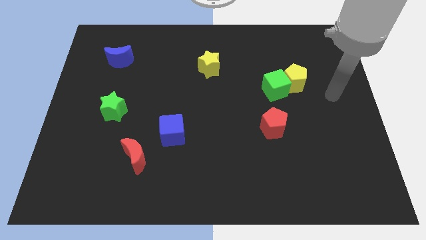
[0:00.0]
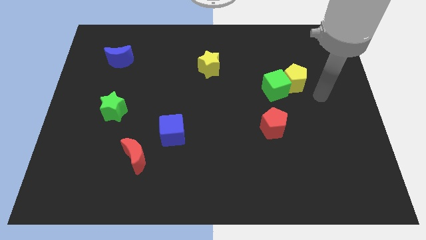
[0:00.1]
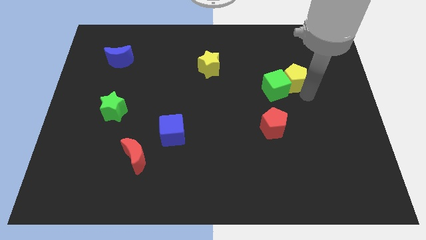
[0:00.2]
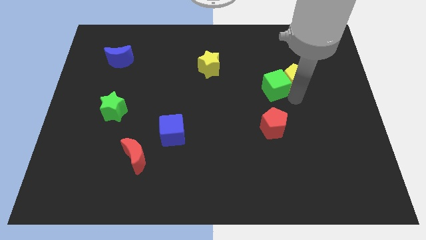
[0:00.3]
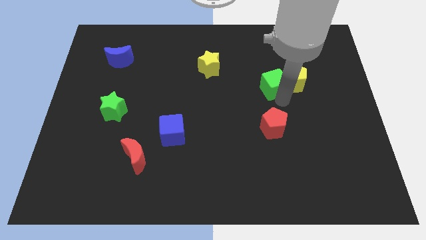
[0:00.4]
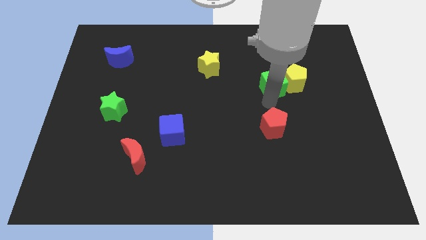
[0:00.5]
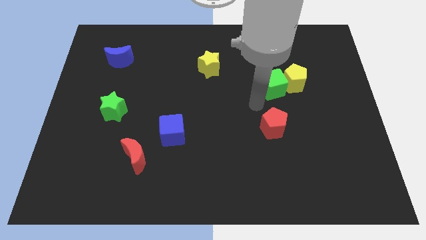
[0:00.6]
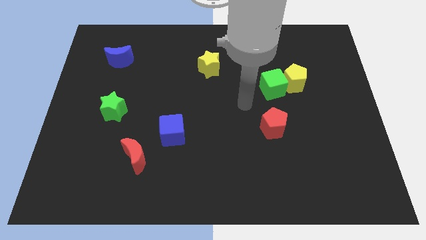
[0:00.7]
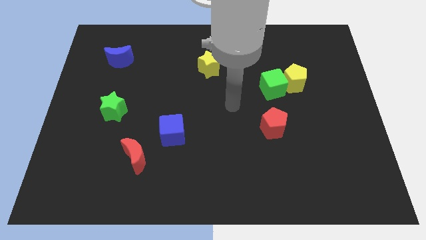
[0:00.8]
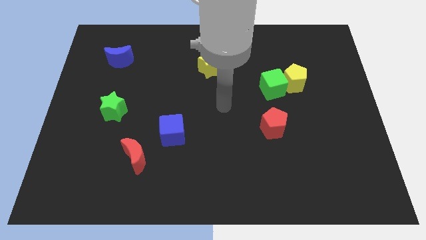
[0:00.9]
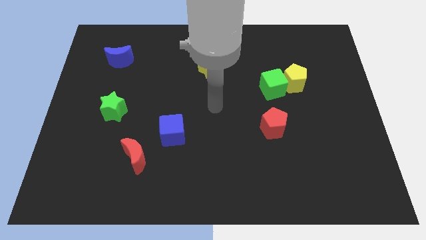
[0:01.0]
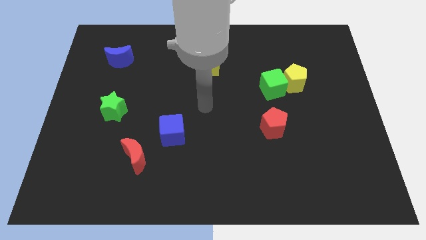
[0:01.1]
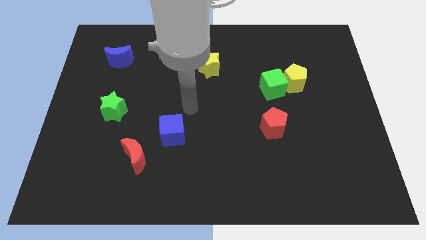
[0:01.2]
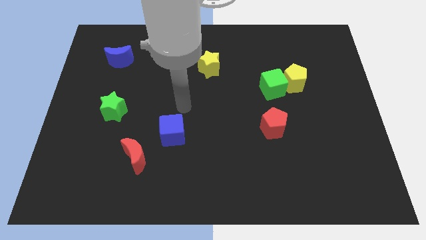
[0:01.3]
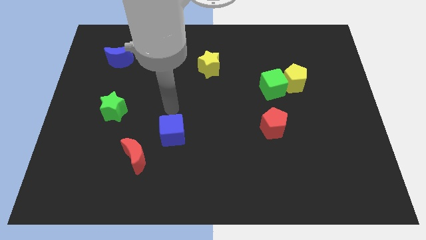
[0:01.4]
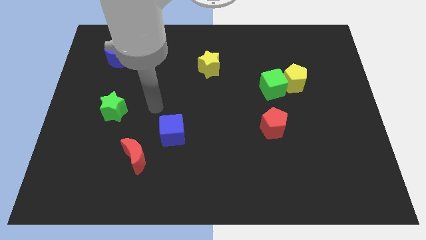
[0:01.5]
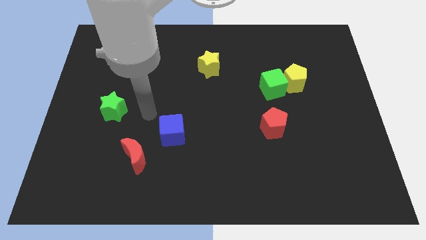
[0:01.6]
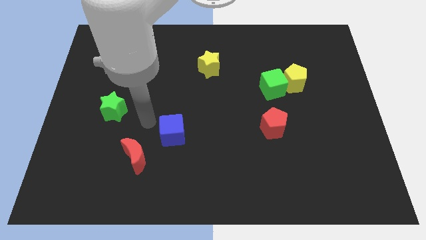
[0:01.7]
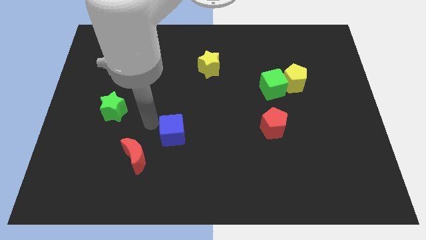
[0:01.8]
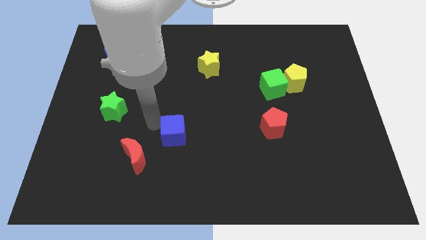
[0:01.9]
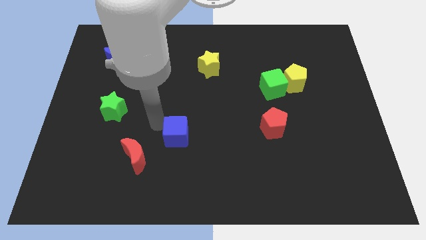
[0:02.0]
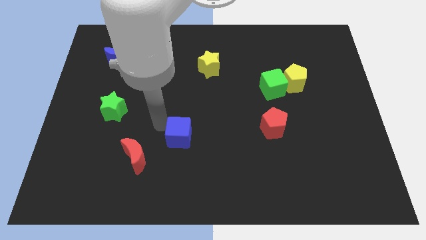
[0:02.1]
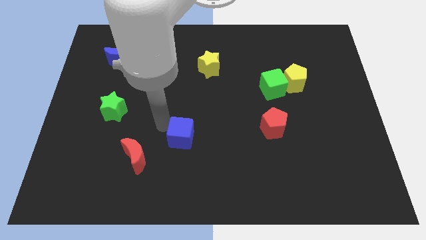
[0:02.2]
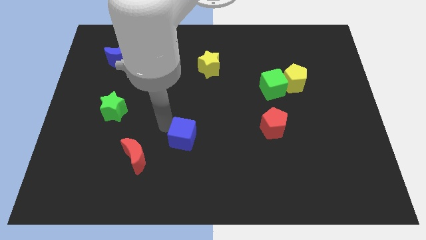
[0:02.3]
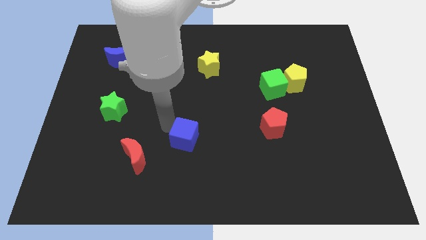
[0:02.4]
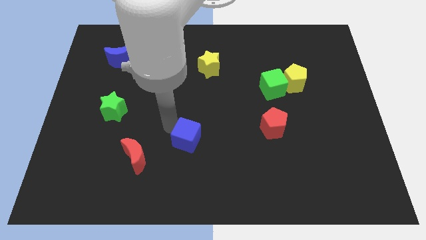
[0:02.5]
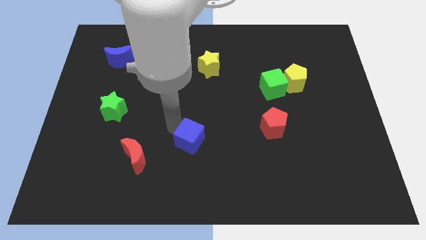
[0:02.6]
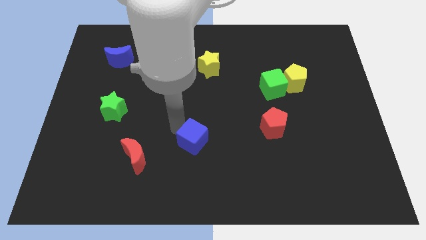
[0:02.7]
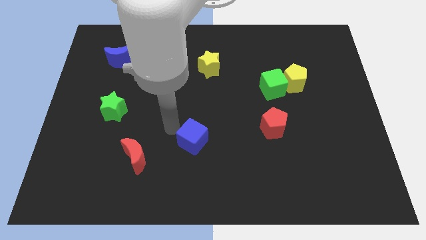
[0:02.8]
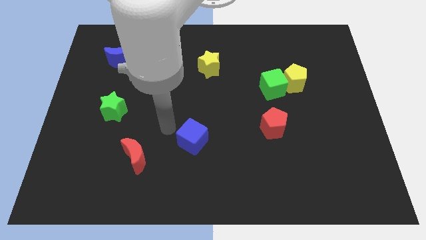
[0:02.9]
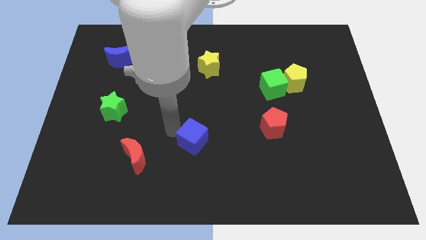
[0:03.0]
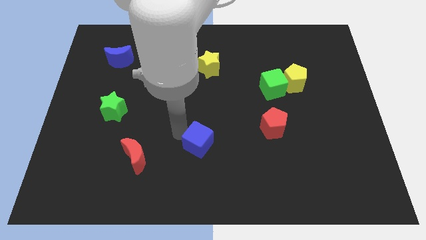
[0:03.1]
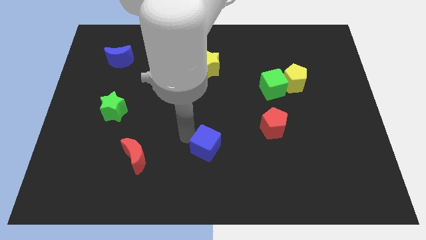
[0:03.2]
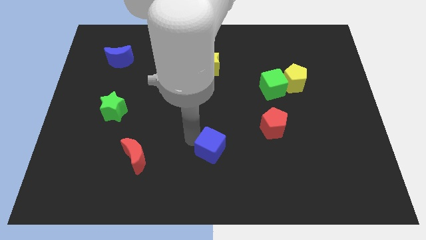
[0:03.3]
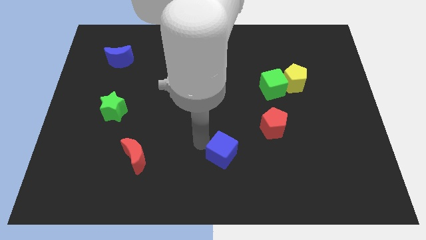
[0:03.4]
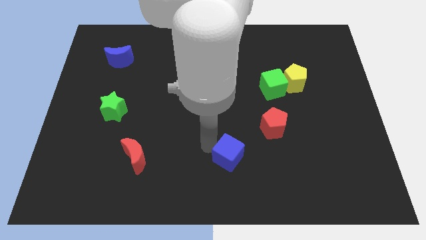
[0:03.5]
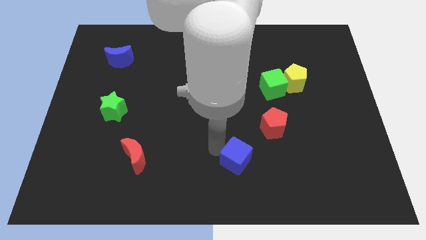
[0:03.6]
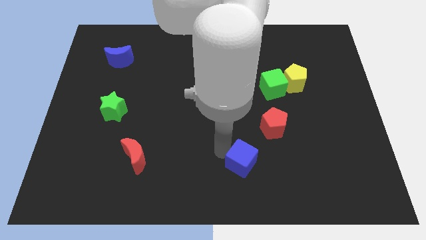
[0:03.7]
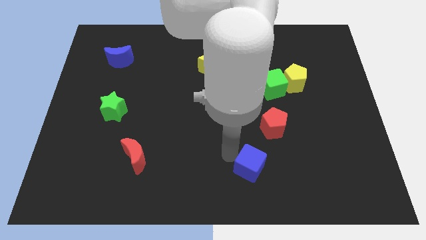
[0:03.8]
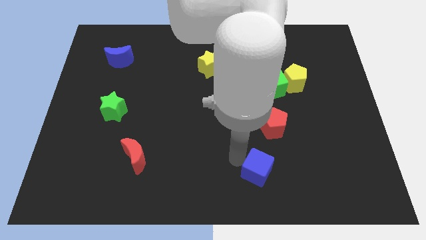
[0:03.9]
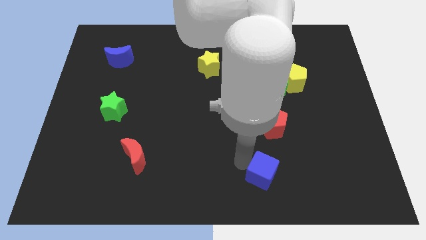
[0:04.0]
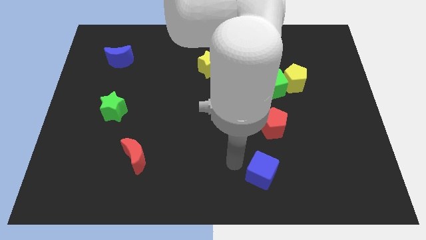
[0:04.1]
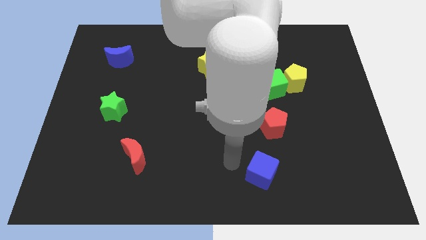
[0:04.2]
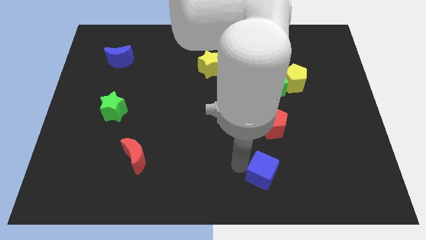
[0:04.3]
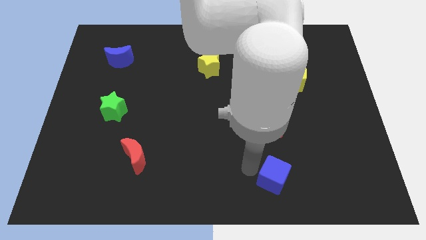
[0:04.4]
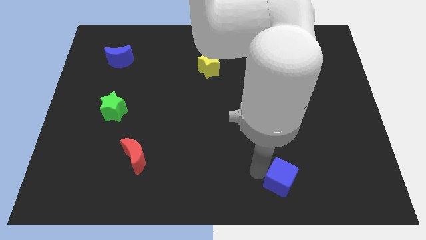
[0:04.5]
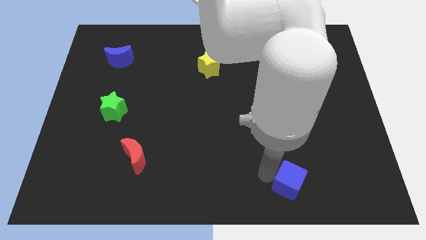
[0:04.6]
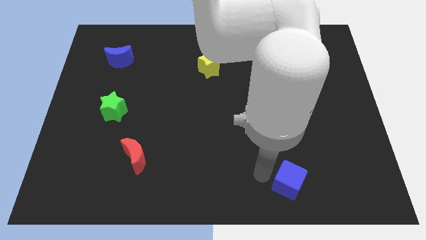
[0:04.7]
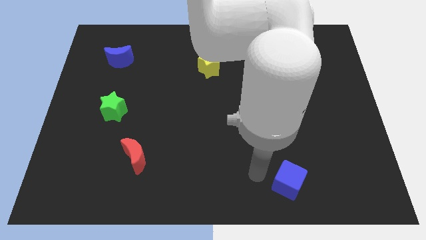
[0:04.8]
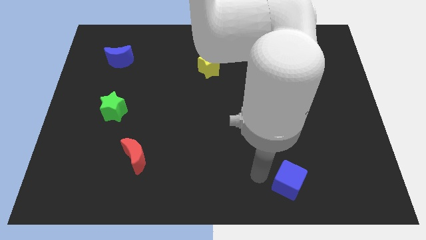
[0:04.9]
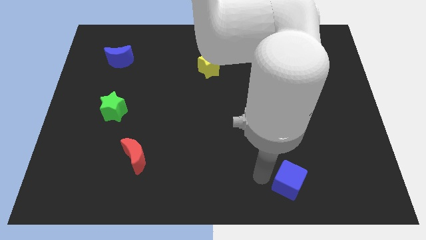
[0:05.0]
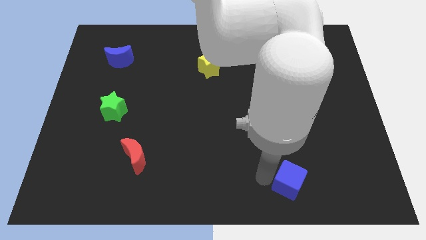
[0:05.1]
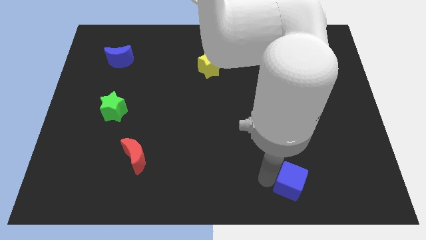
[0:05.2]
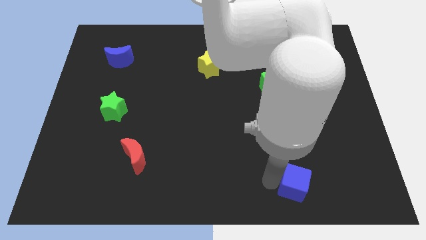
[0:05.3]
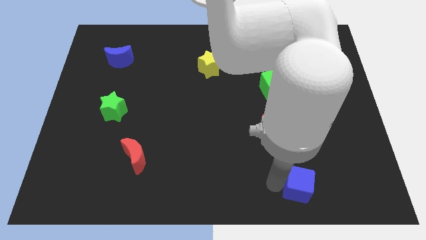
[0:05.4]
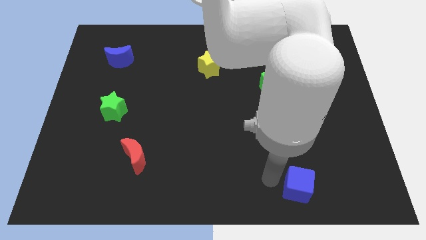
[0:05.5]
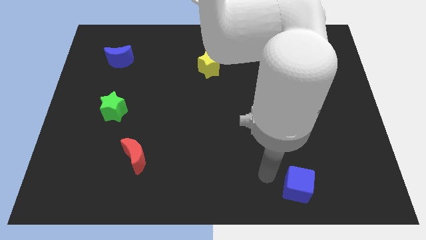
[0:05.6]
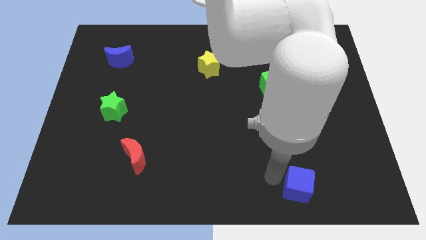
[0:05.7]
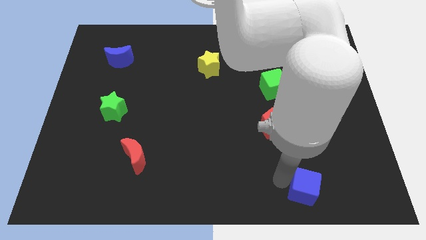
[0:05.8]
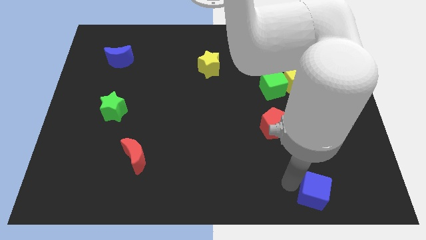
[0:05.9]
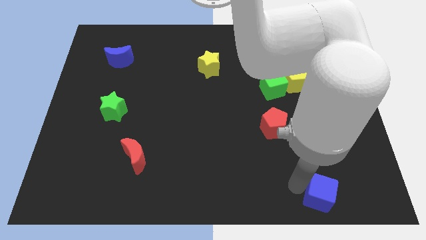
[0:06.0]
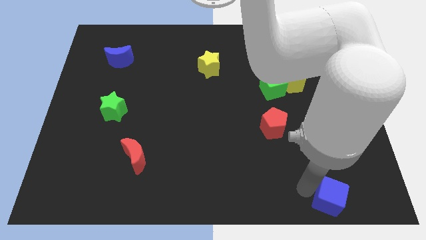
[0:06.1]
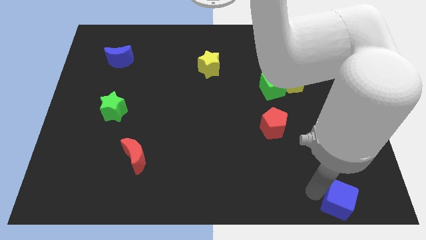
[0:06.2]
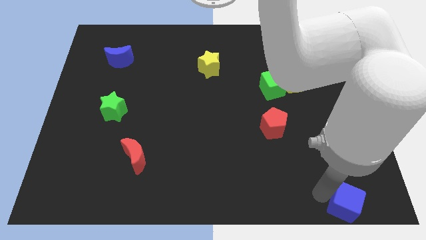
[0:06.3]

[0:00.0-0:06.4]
move the blue cube to the lower right corner

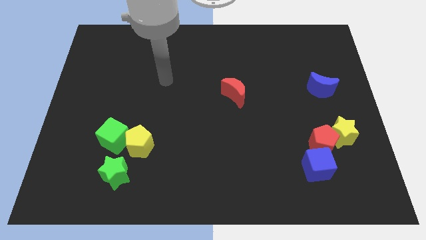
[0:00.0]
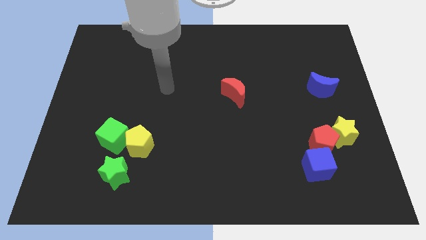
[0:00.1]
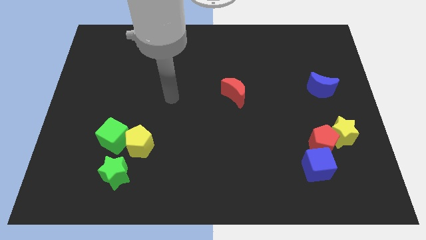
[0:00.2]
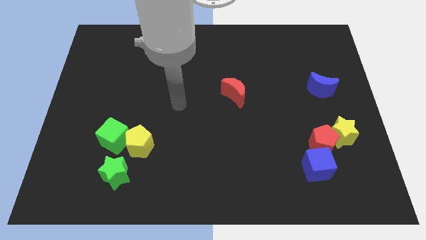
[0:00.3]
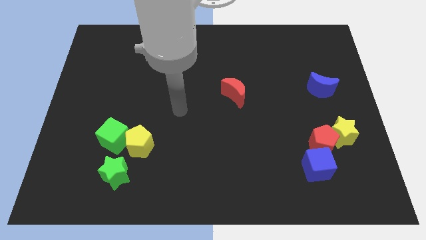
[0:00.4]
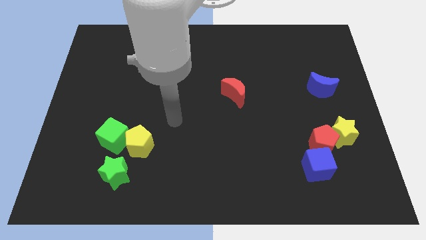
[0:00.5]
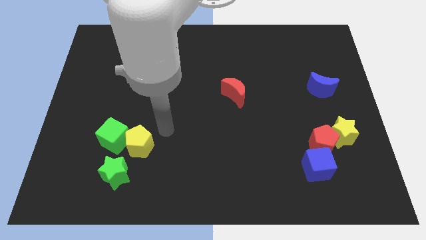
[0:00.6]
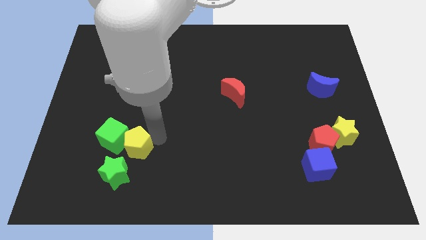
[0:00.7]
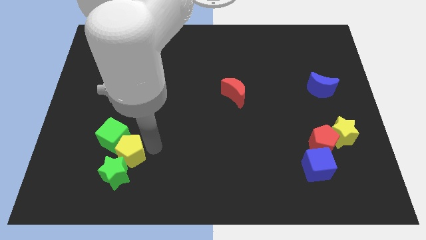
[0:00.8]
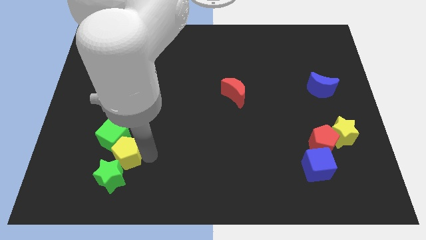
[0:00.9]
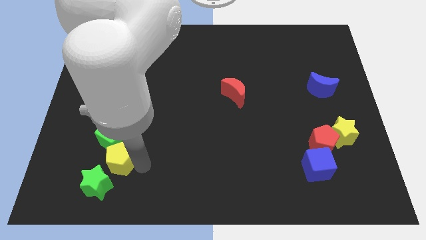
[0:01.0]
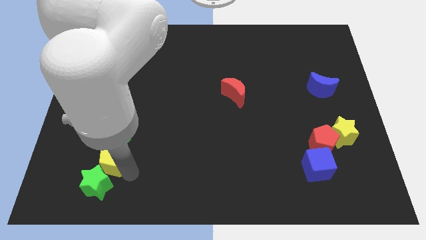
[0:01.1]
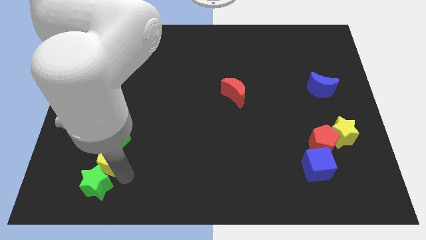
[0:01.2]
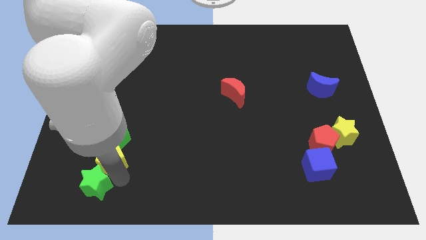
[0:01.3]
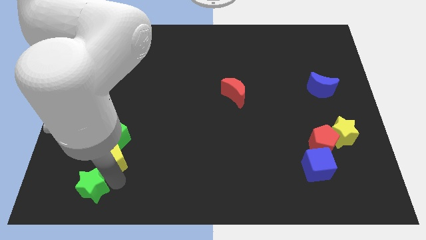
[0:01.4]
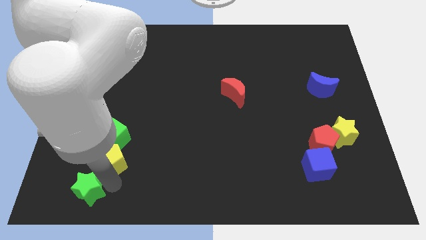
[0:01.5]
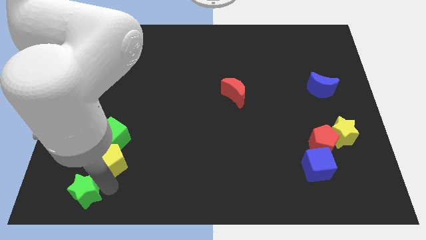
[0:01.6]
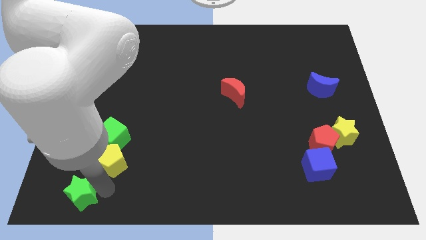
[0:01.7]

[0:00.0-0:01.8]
push the green star to the bottom left
